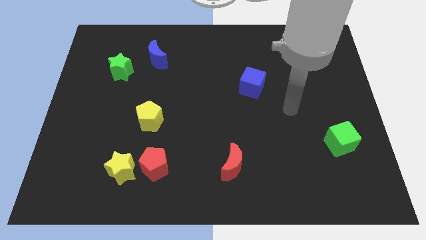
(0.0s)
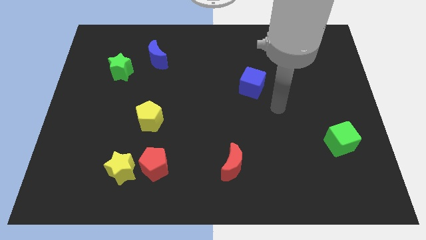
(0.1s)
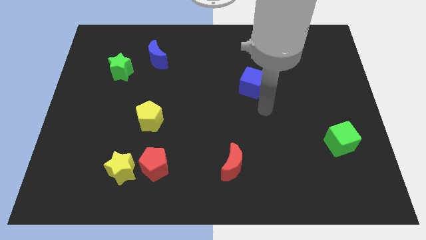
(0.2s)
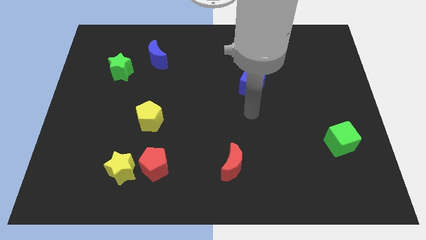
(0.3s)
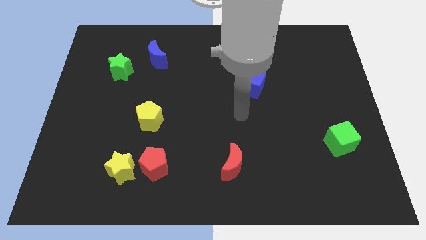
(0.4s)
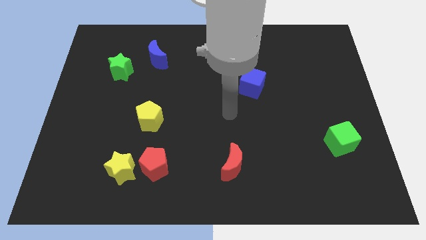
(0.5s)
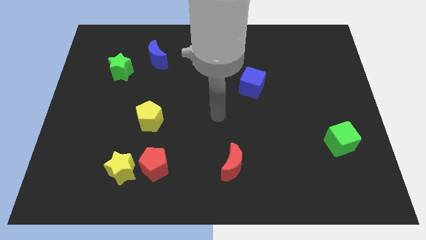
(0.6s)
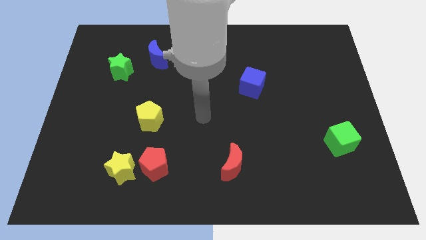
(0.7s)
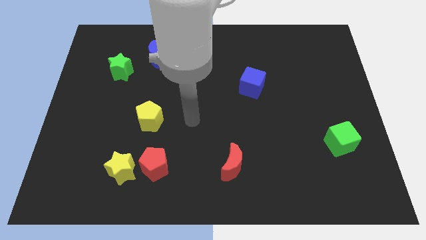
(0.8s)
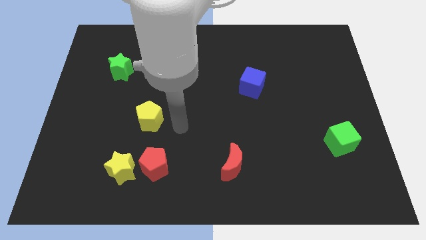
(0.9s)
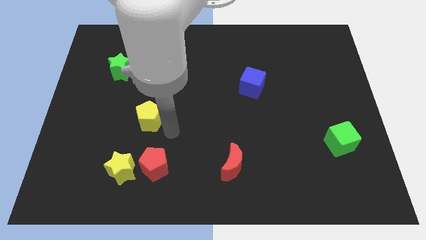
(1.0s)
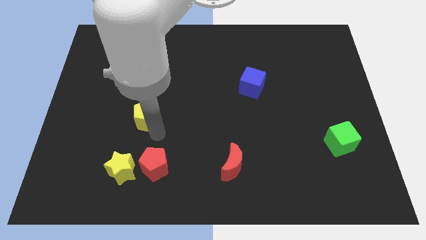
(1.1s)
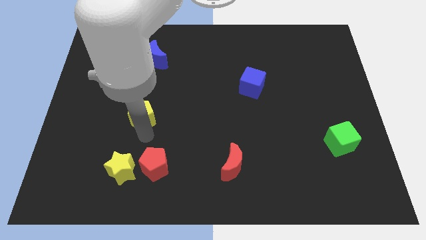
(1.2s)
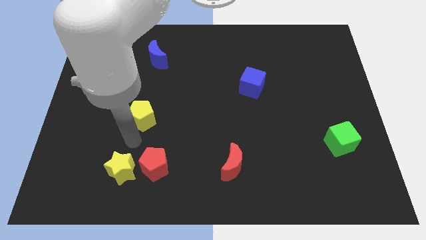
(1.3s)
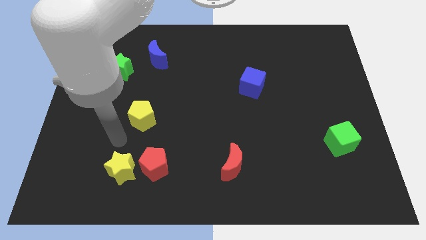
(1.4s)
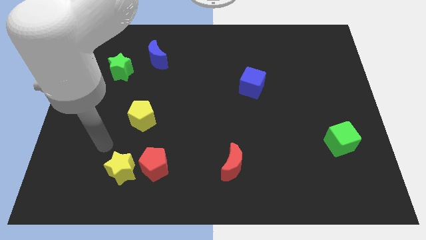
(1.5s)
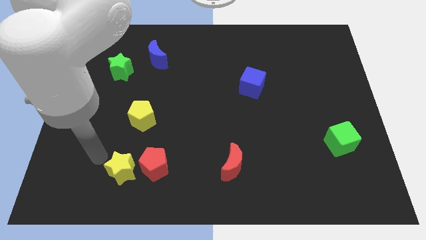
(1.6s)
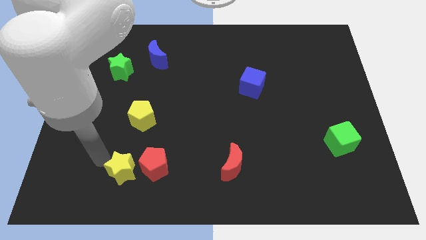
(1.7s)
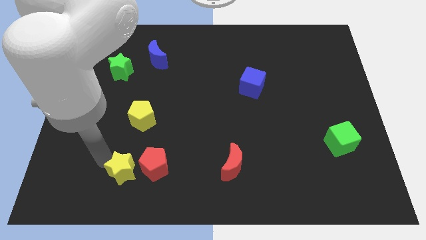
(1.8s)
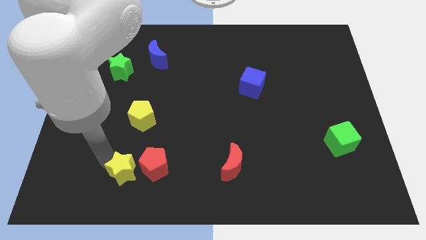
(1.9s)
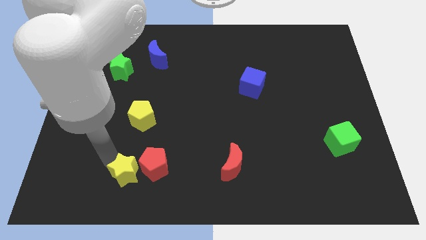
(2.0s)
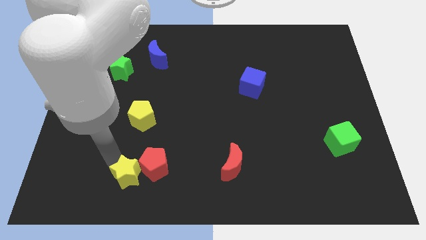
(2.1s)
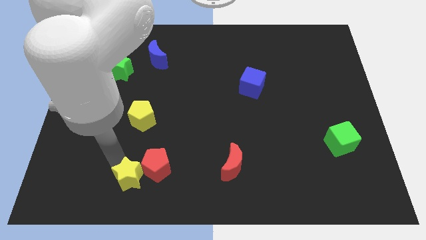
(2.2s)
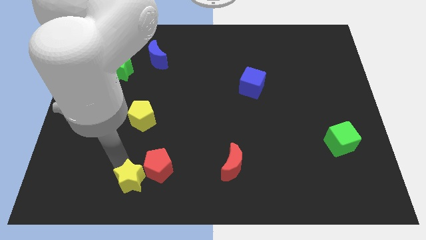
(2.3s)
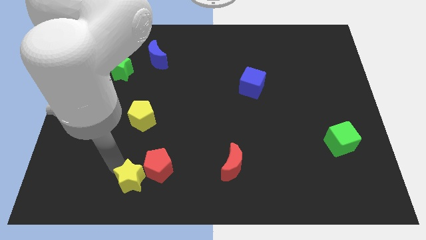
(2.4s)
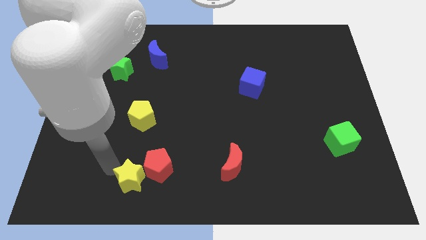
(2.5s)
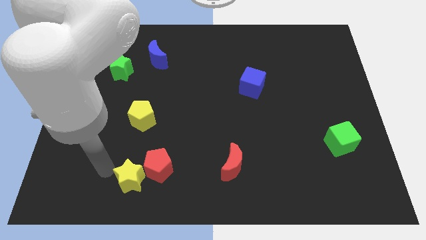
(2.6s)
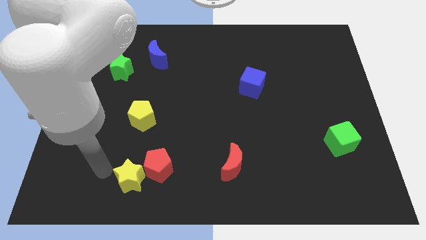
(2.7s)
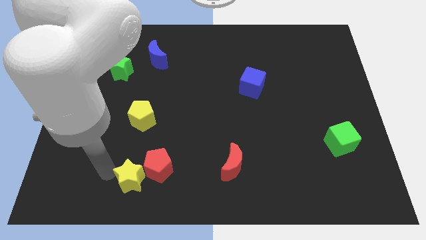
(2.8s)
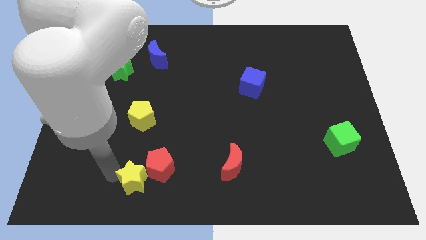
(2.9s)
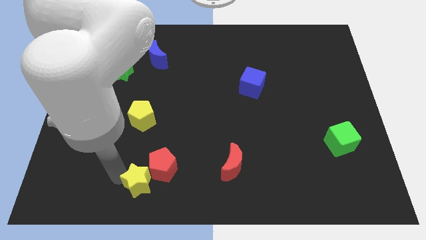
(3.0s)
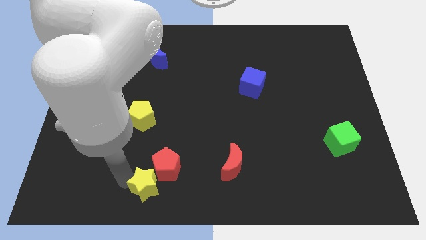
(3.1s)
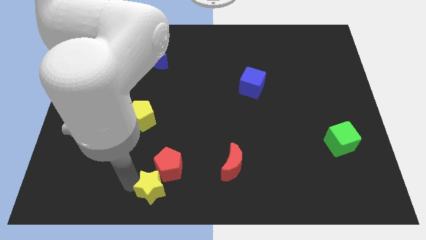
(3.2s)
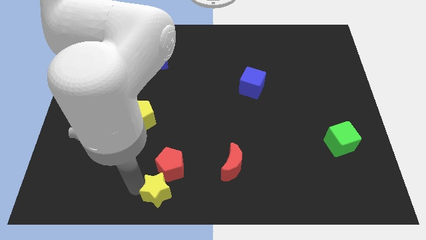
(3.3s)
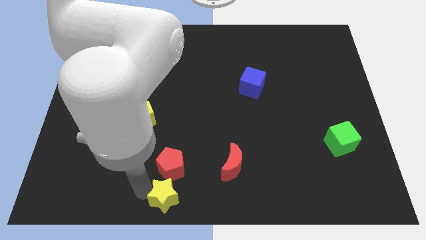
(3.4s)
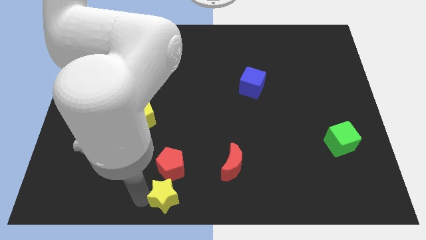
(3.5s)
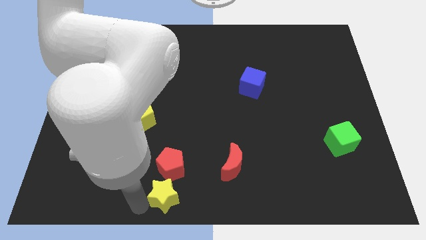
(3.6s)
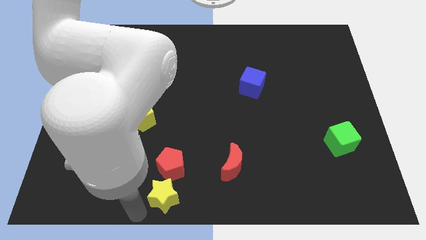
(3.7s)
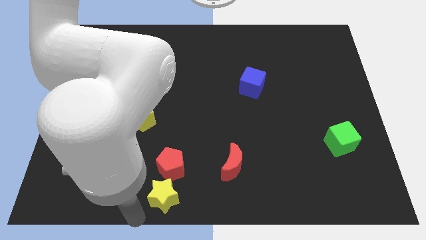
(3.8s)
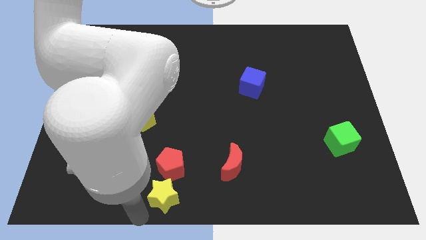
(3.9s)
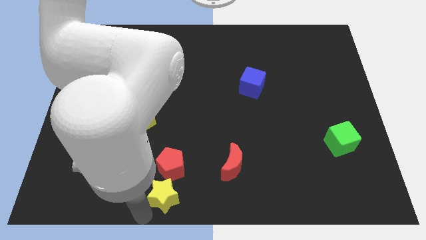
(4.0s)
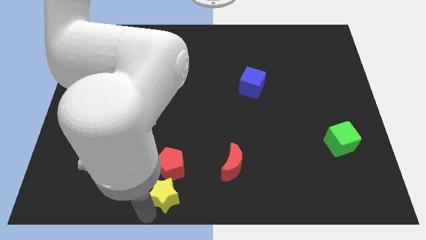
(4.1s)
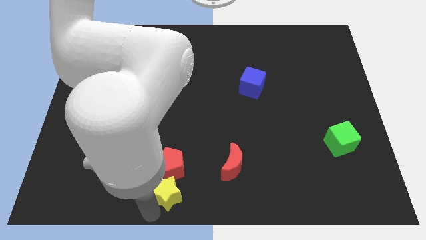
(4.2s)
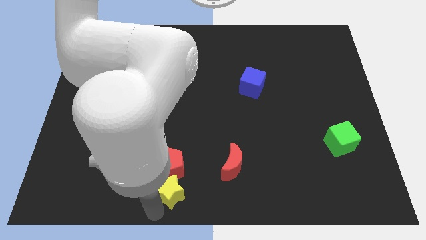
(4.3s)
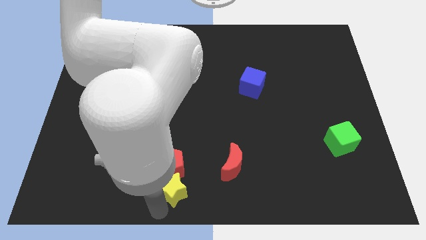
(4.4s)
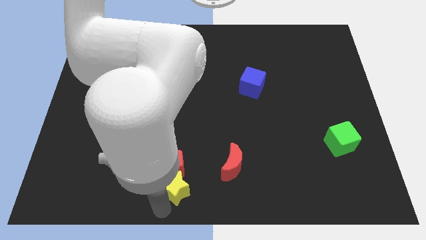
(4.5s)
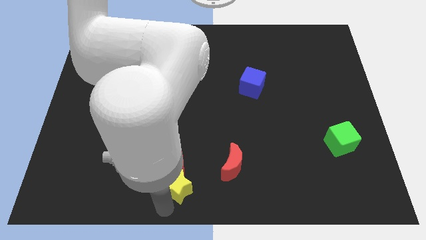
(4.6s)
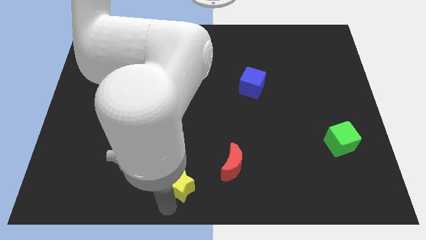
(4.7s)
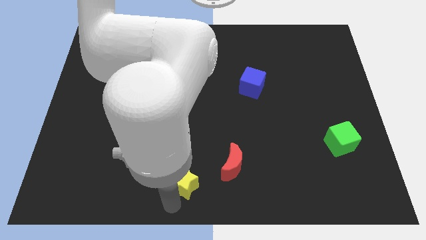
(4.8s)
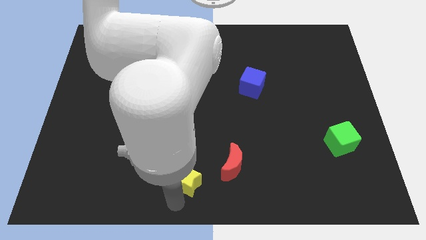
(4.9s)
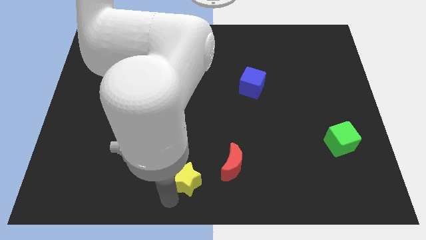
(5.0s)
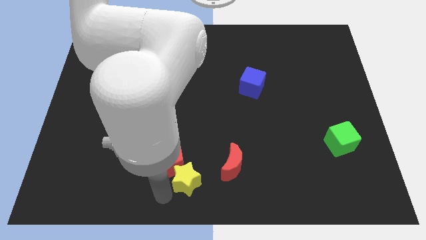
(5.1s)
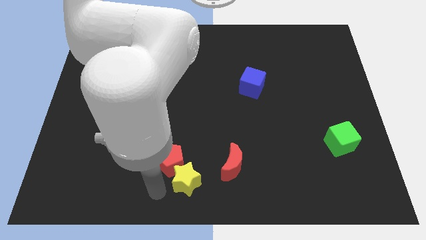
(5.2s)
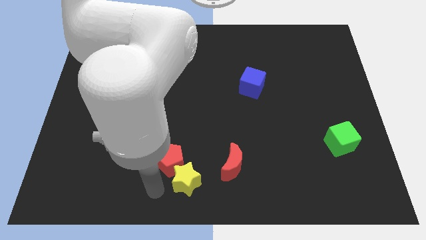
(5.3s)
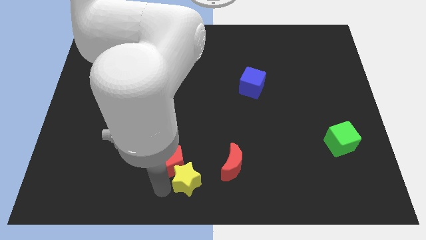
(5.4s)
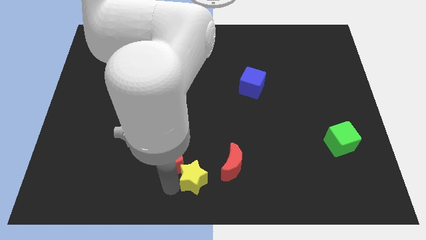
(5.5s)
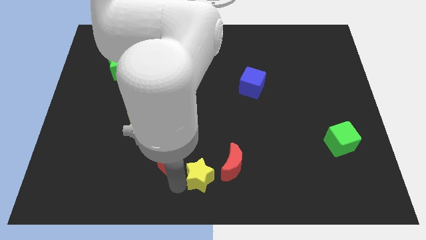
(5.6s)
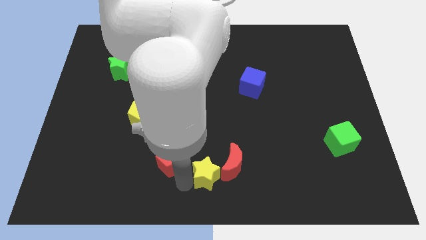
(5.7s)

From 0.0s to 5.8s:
move the yellow star close to the red moon

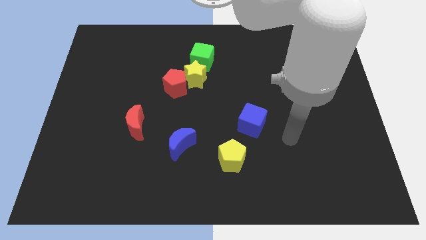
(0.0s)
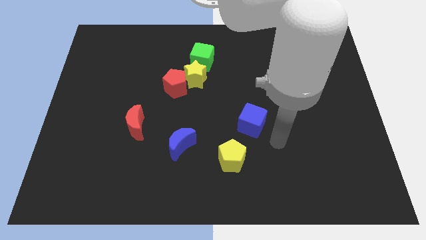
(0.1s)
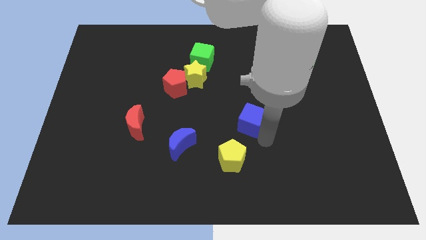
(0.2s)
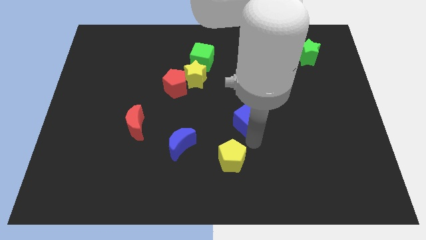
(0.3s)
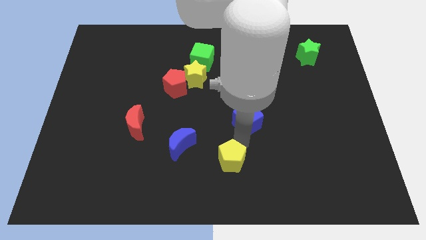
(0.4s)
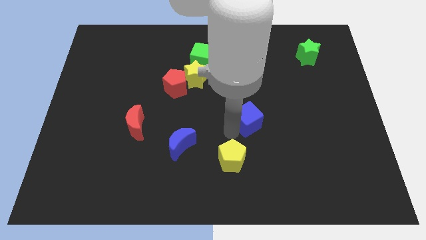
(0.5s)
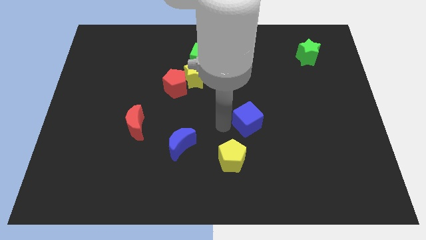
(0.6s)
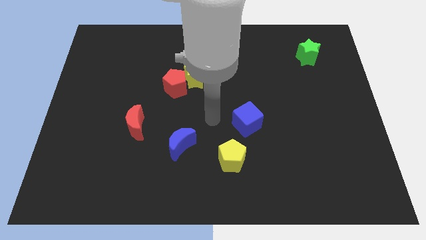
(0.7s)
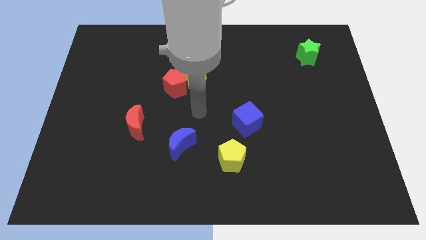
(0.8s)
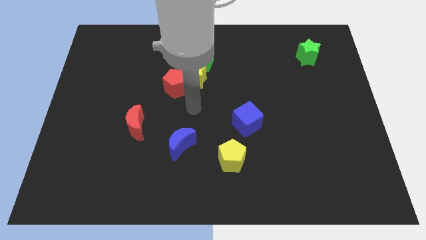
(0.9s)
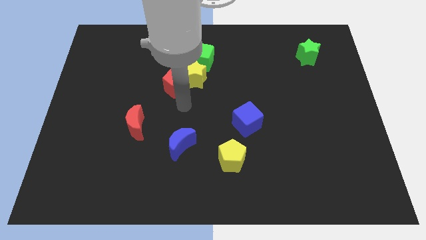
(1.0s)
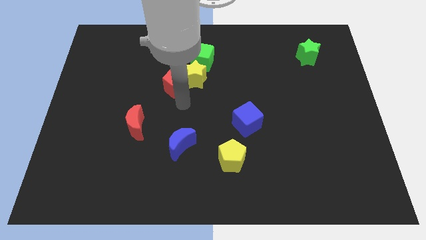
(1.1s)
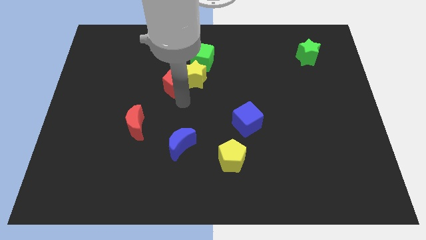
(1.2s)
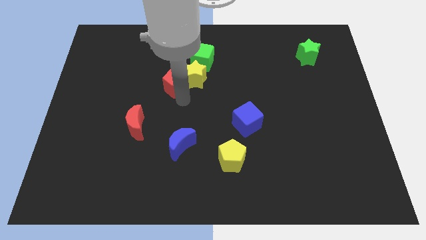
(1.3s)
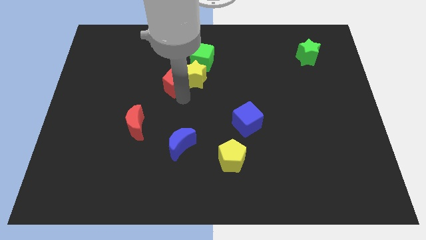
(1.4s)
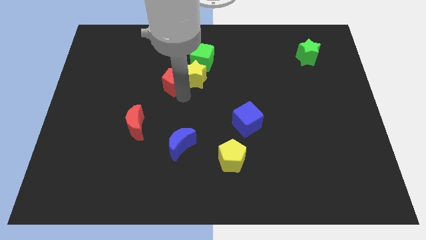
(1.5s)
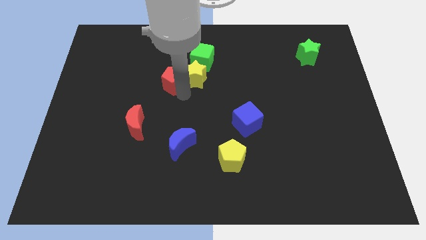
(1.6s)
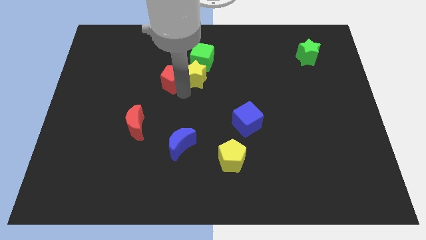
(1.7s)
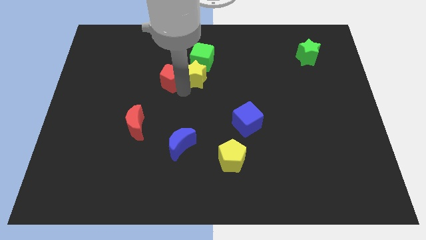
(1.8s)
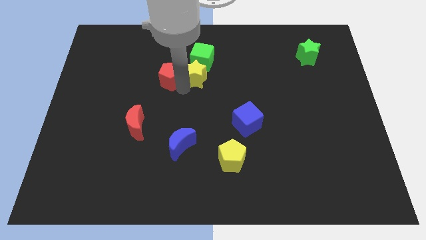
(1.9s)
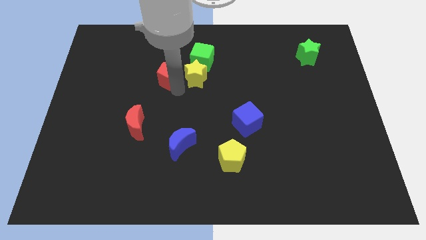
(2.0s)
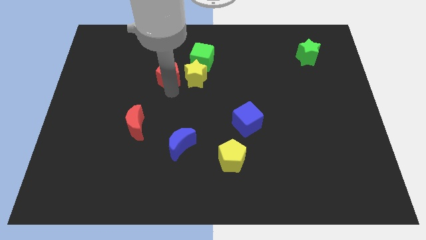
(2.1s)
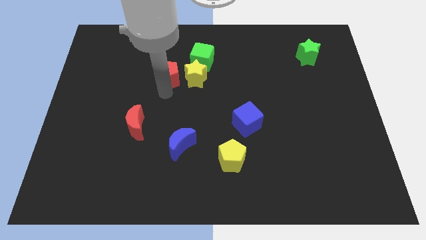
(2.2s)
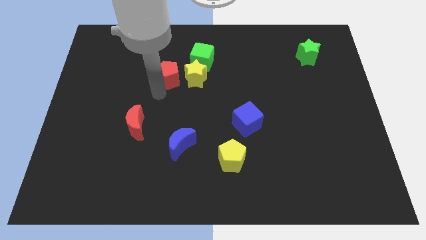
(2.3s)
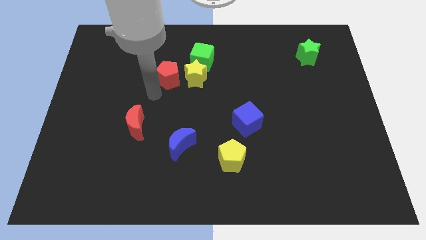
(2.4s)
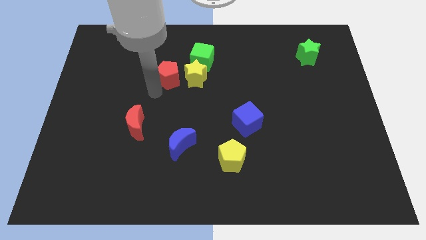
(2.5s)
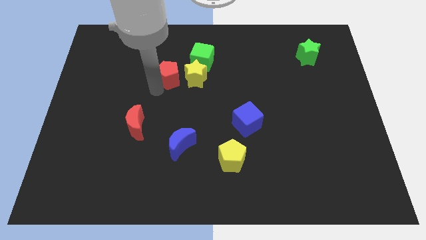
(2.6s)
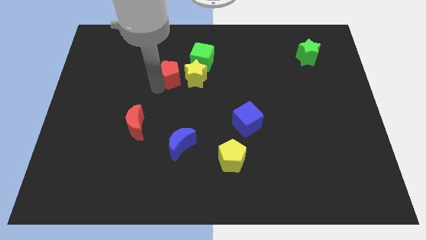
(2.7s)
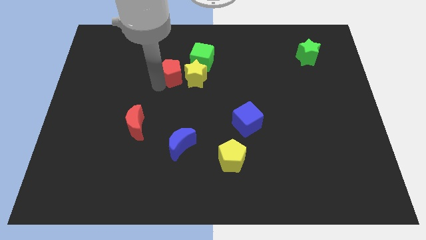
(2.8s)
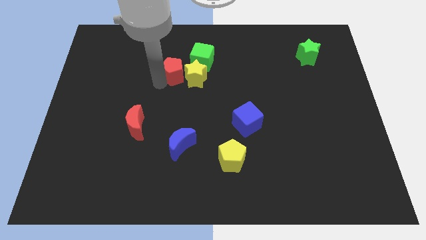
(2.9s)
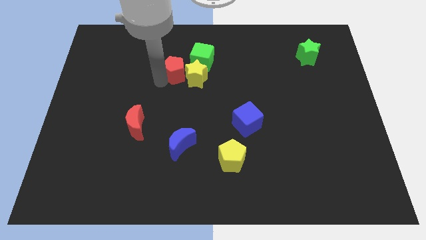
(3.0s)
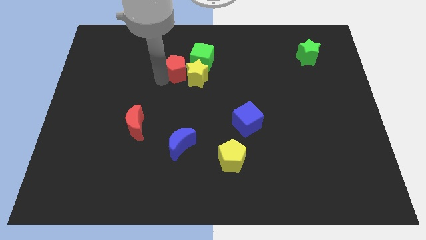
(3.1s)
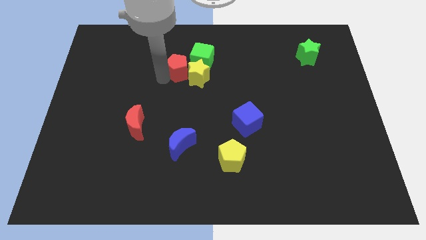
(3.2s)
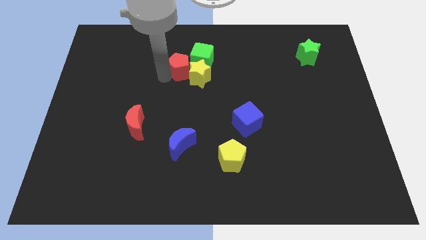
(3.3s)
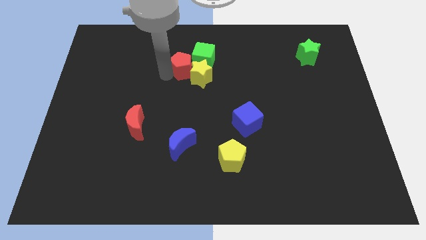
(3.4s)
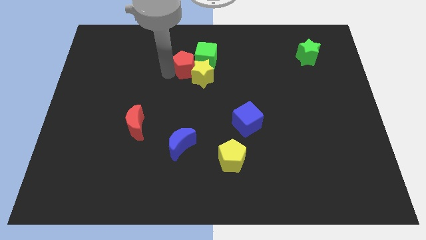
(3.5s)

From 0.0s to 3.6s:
move the red pentagon to the green cube
